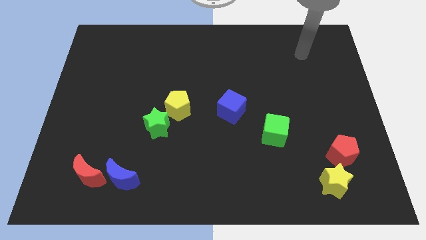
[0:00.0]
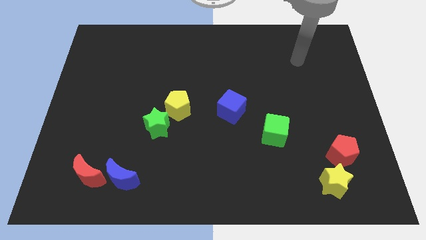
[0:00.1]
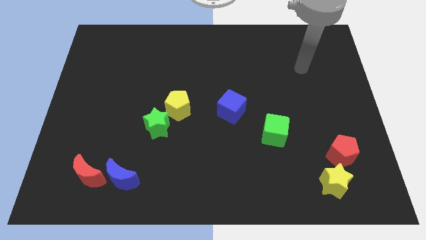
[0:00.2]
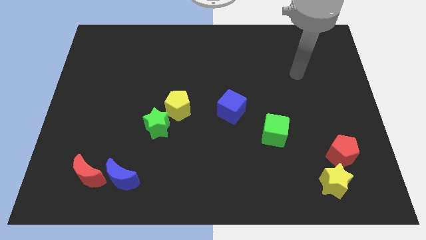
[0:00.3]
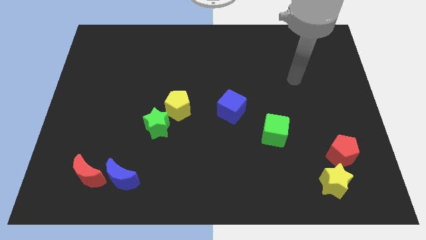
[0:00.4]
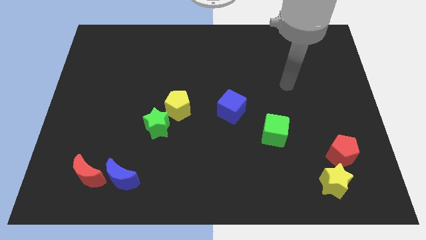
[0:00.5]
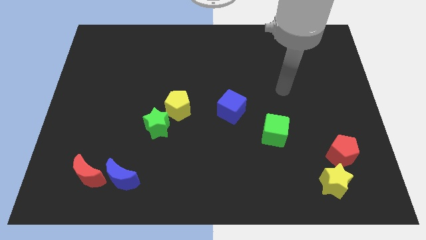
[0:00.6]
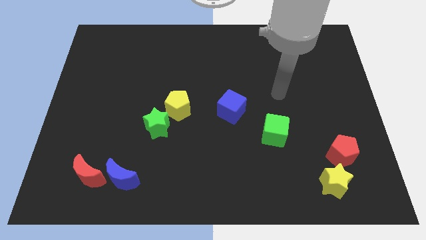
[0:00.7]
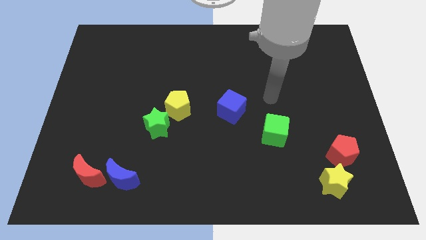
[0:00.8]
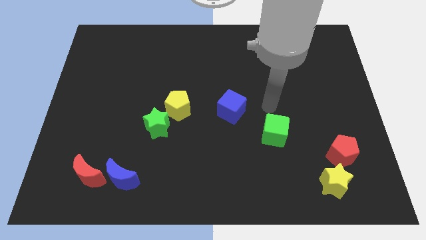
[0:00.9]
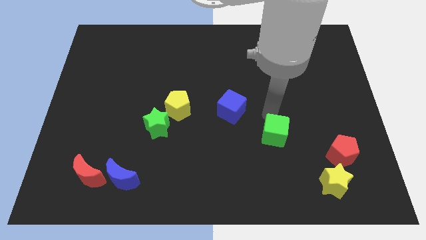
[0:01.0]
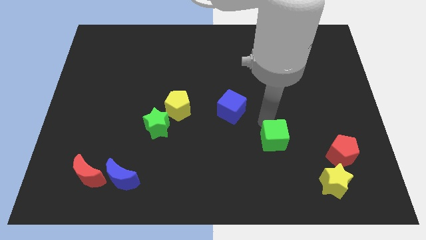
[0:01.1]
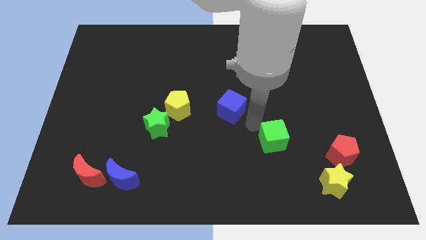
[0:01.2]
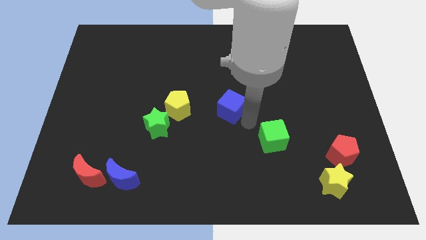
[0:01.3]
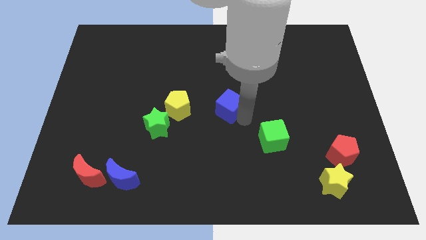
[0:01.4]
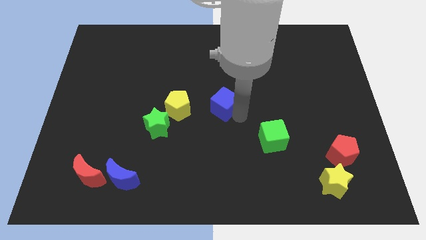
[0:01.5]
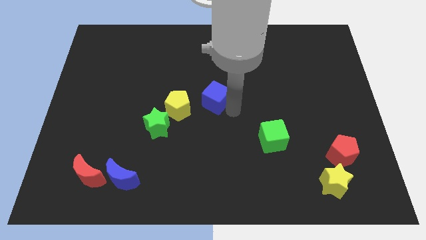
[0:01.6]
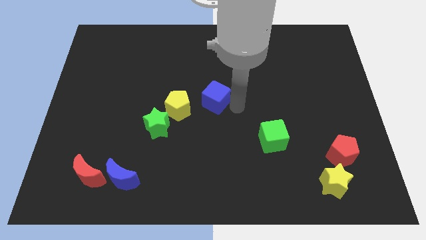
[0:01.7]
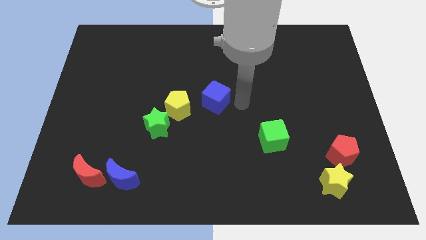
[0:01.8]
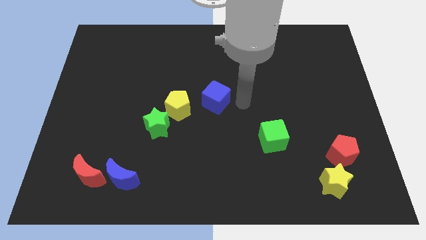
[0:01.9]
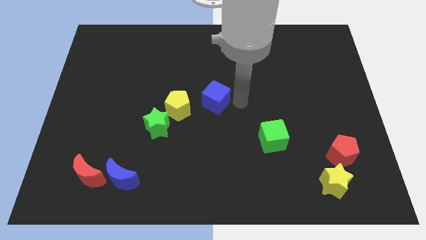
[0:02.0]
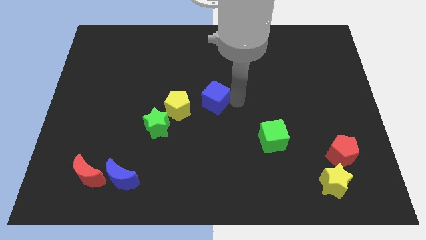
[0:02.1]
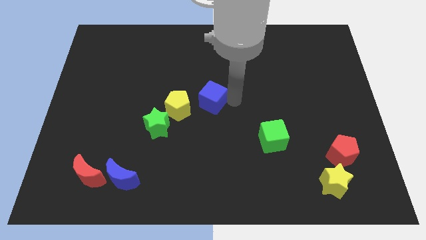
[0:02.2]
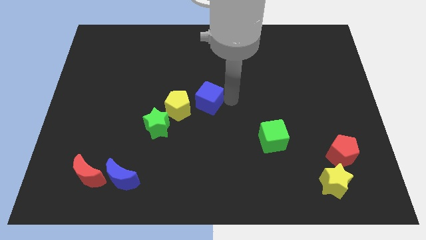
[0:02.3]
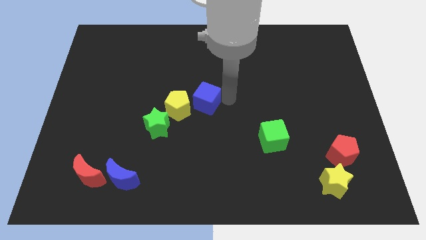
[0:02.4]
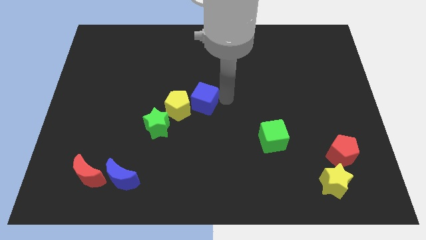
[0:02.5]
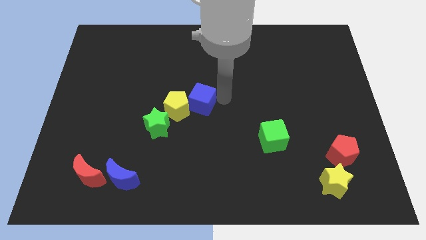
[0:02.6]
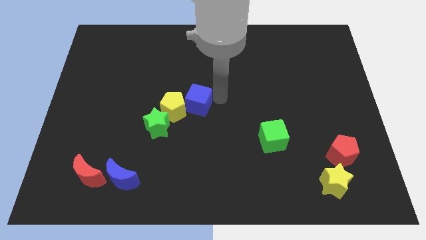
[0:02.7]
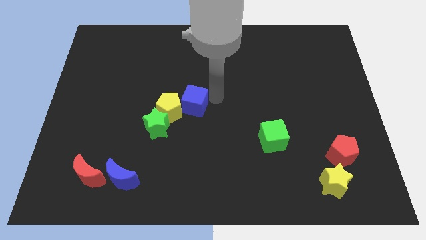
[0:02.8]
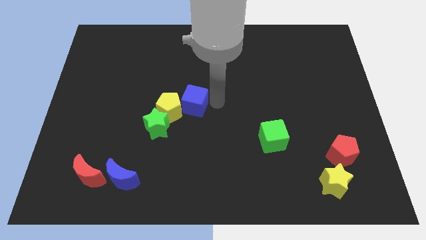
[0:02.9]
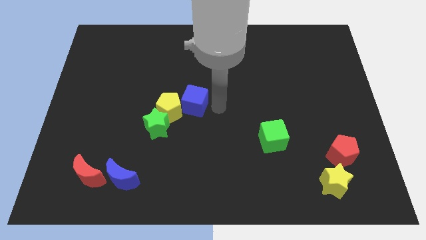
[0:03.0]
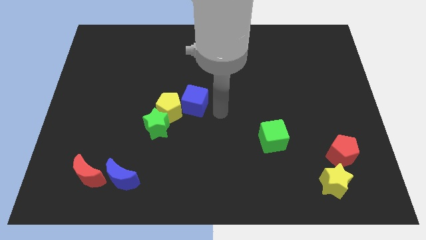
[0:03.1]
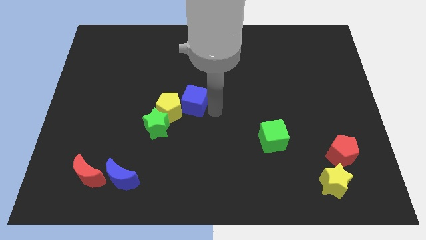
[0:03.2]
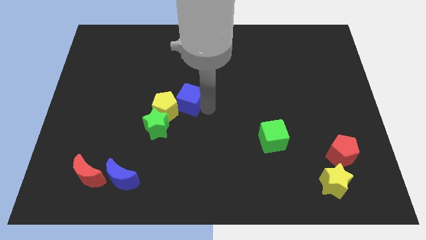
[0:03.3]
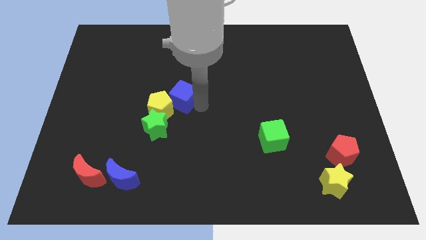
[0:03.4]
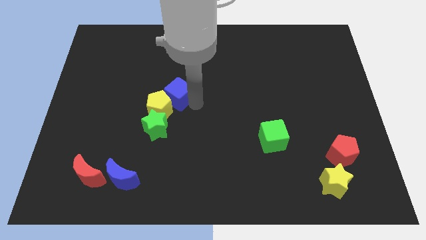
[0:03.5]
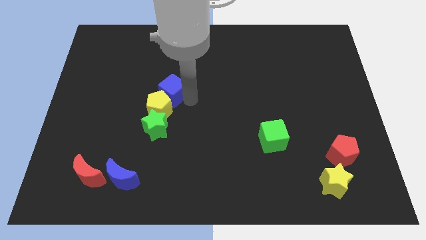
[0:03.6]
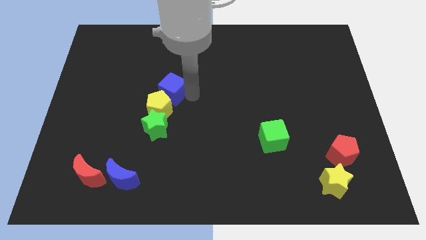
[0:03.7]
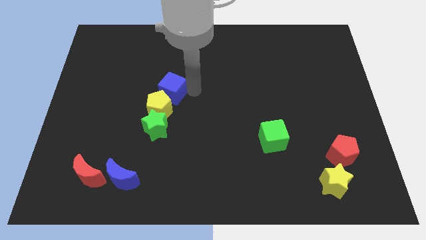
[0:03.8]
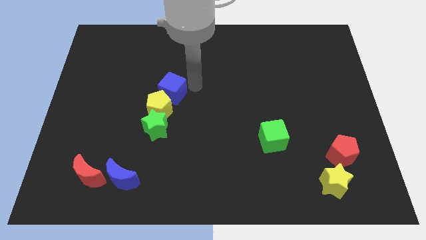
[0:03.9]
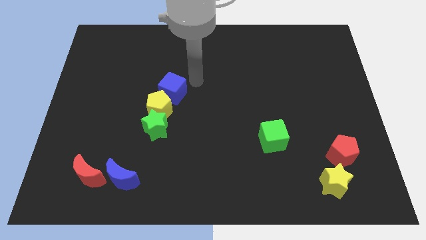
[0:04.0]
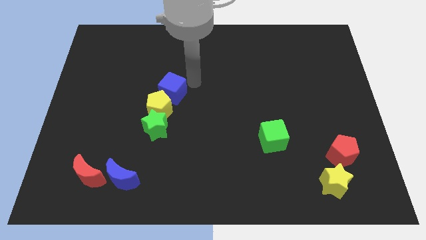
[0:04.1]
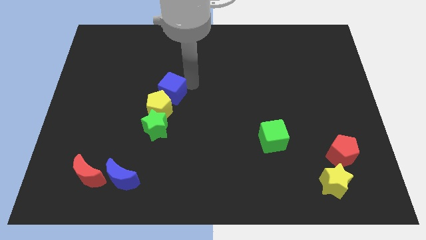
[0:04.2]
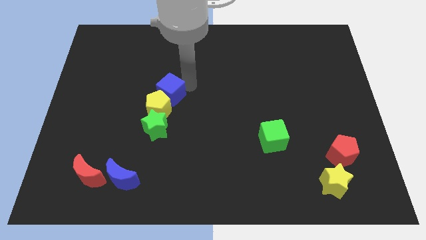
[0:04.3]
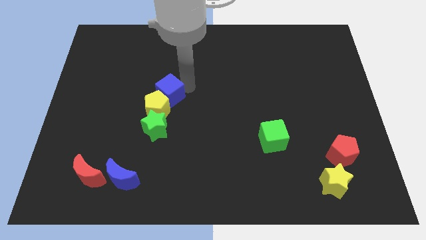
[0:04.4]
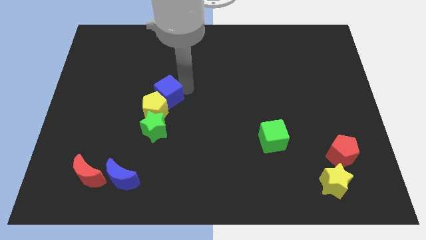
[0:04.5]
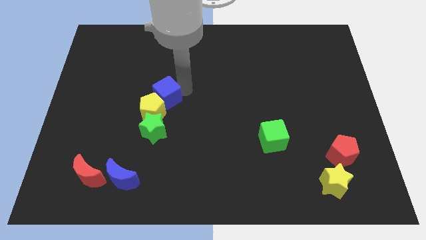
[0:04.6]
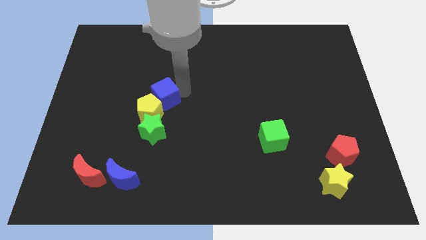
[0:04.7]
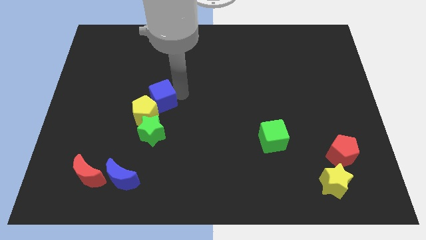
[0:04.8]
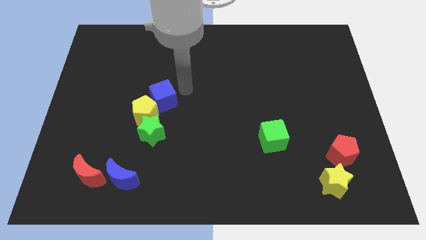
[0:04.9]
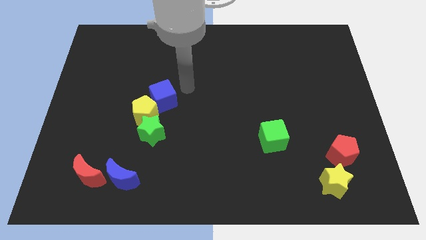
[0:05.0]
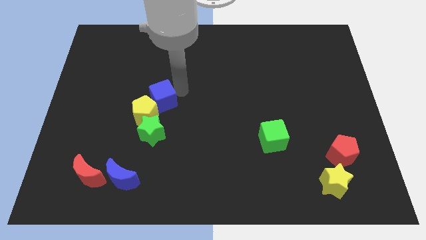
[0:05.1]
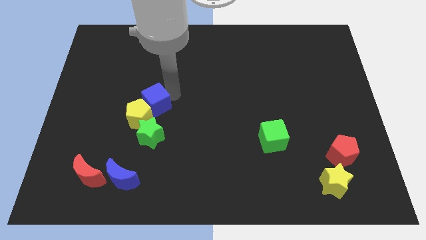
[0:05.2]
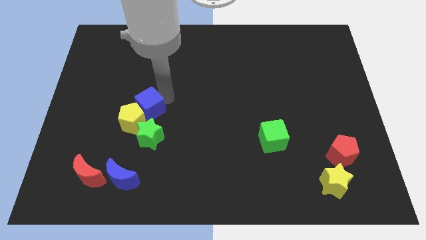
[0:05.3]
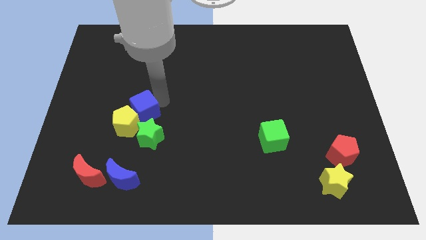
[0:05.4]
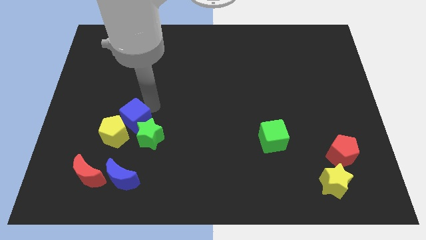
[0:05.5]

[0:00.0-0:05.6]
move the blue cube just left of the green star

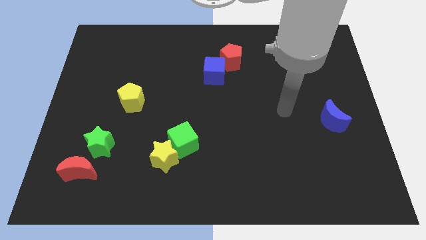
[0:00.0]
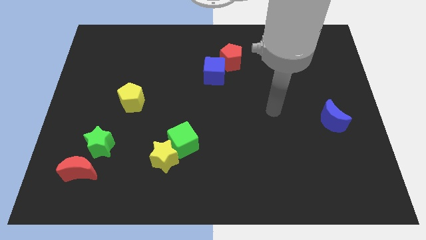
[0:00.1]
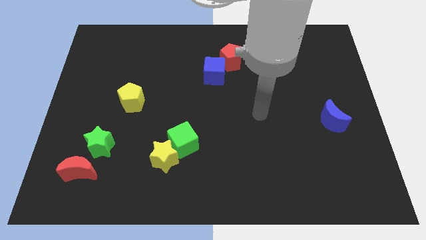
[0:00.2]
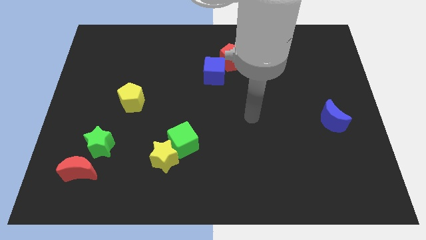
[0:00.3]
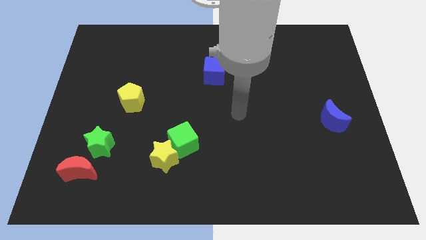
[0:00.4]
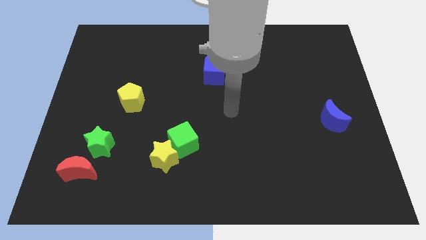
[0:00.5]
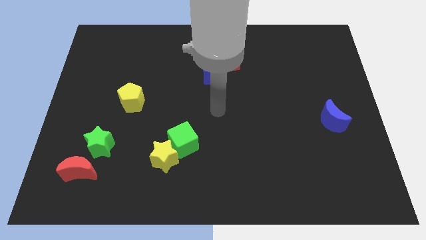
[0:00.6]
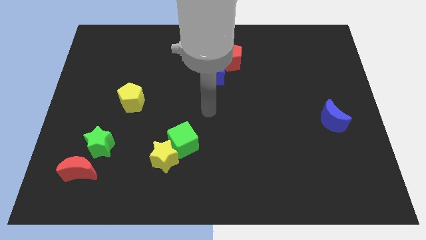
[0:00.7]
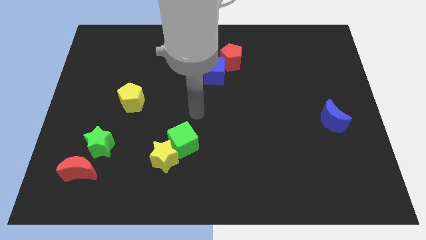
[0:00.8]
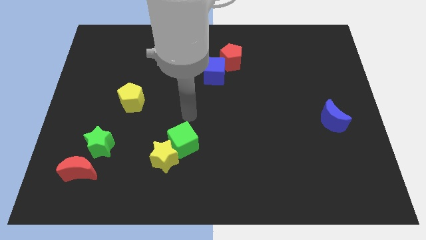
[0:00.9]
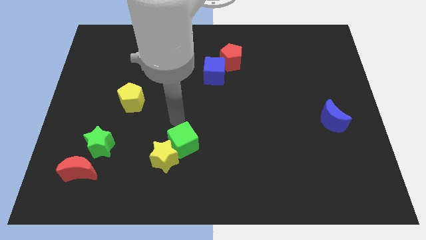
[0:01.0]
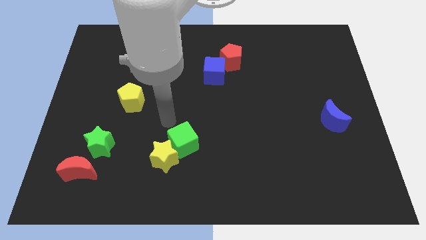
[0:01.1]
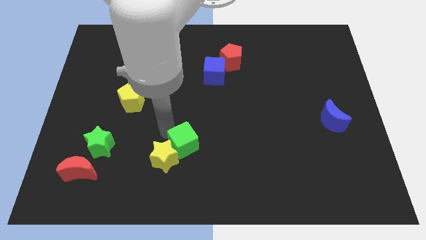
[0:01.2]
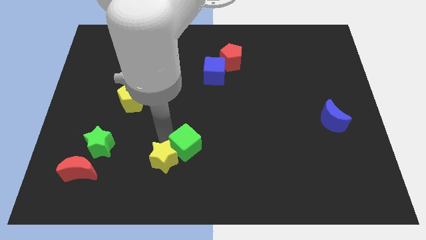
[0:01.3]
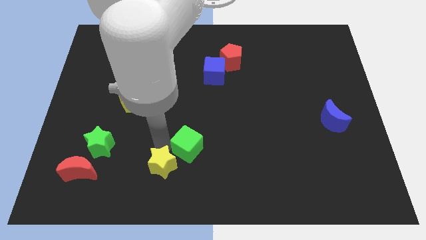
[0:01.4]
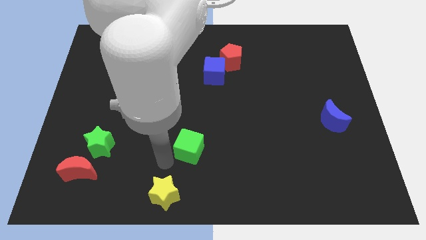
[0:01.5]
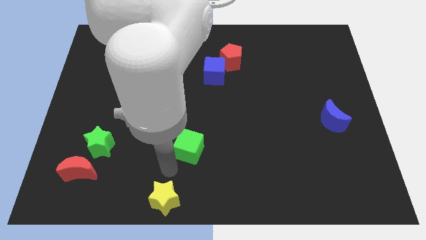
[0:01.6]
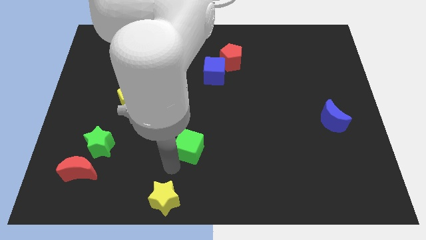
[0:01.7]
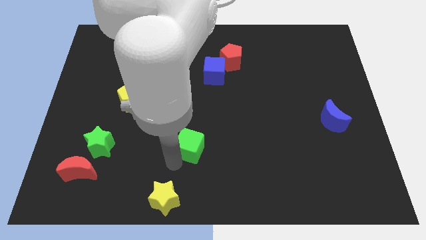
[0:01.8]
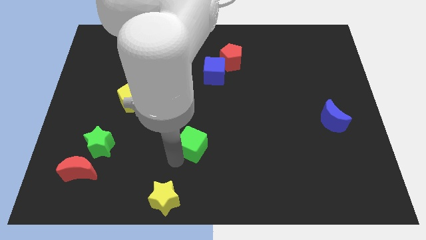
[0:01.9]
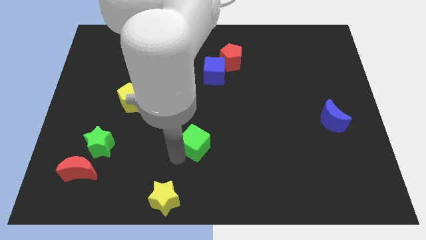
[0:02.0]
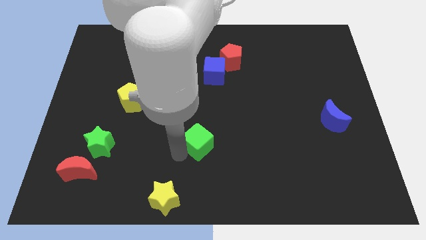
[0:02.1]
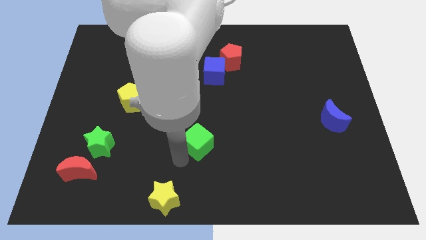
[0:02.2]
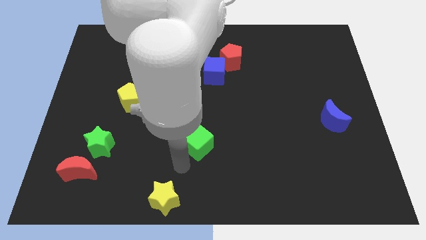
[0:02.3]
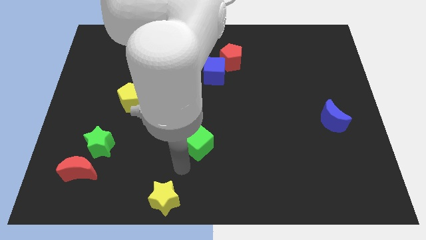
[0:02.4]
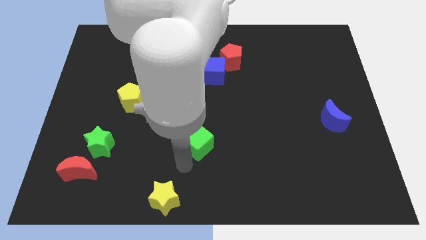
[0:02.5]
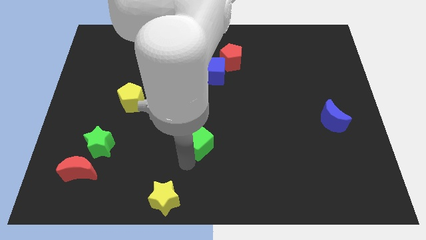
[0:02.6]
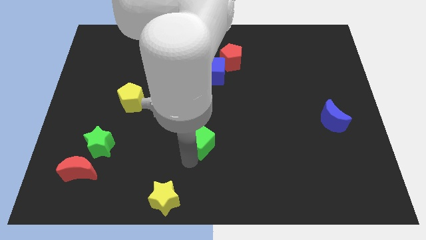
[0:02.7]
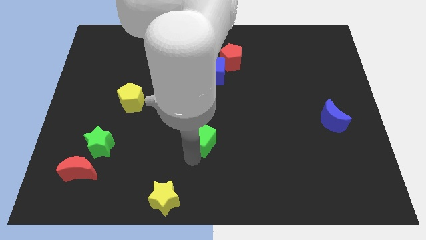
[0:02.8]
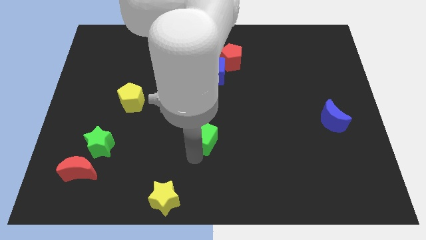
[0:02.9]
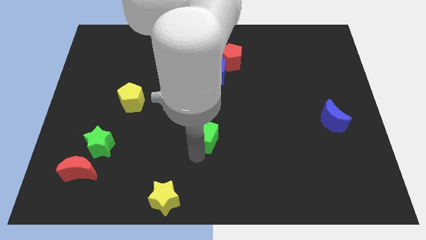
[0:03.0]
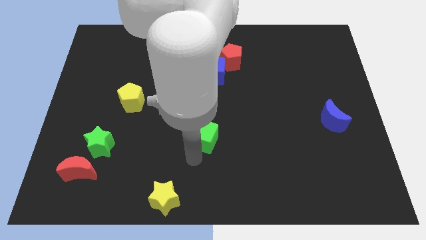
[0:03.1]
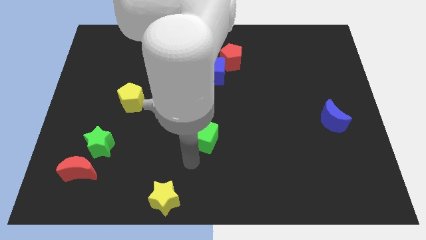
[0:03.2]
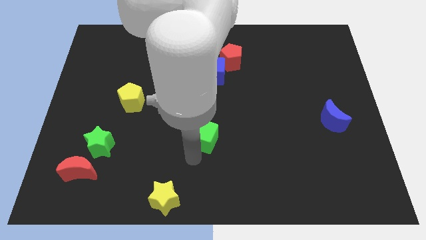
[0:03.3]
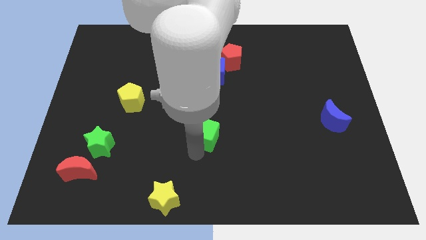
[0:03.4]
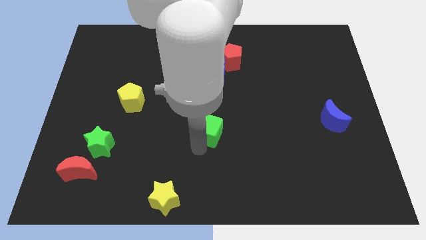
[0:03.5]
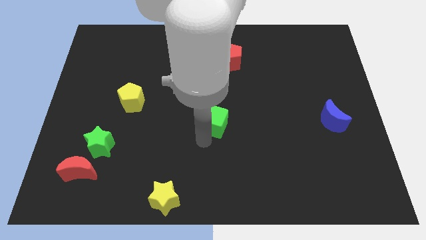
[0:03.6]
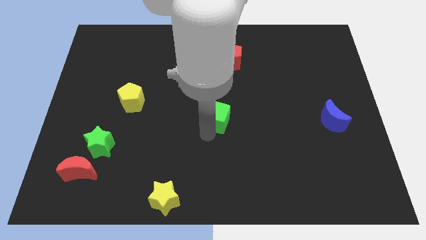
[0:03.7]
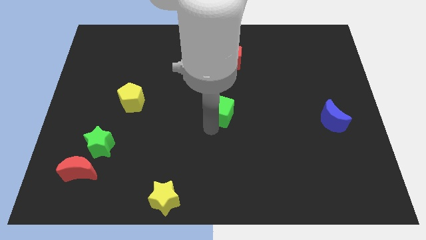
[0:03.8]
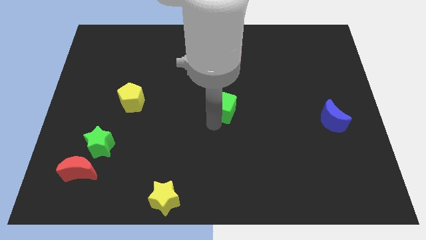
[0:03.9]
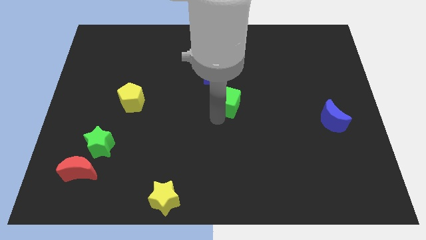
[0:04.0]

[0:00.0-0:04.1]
put the green cube to the bottom right side of the blue cube
